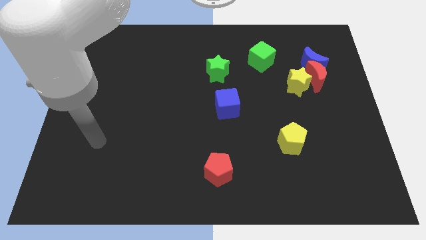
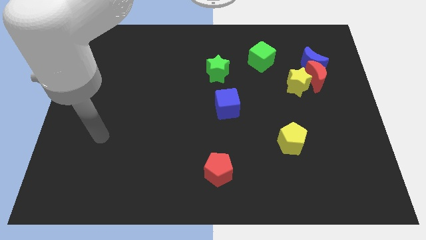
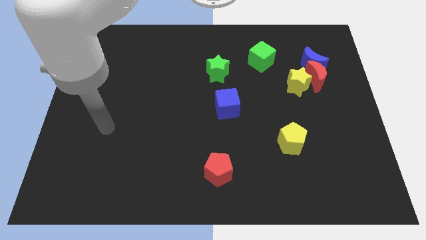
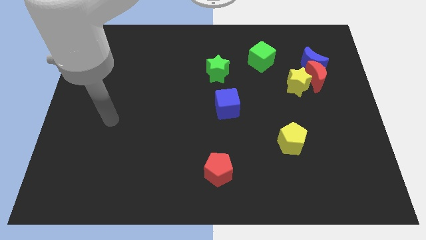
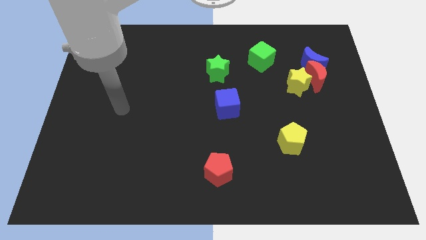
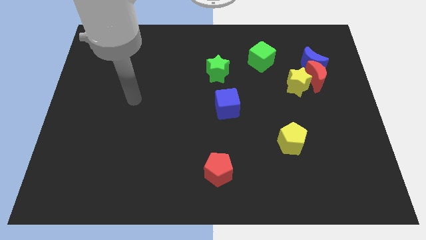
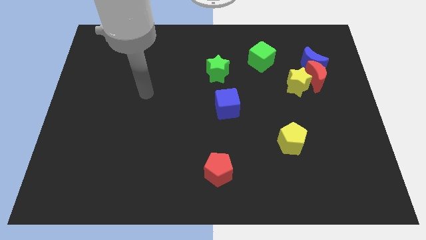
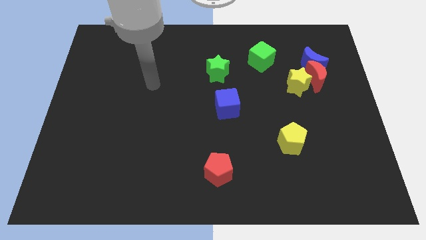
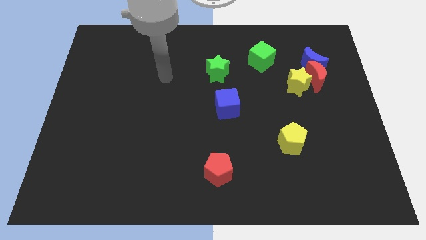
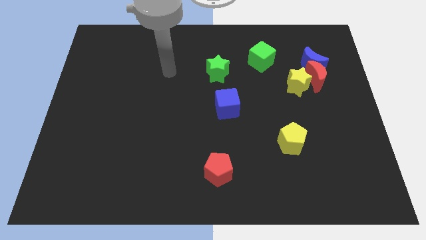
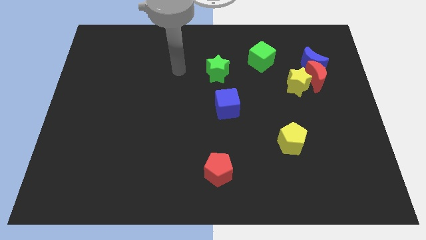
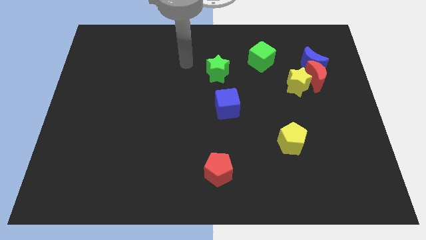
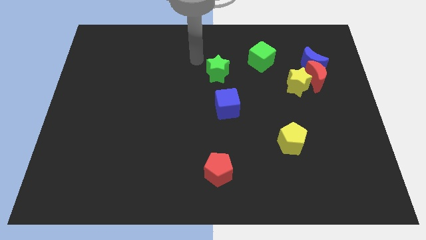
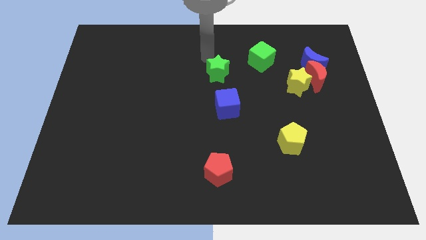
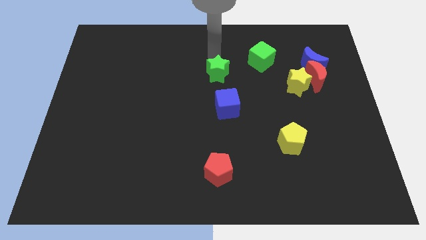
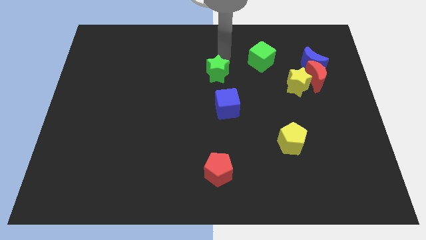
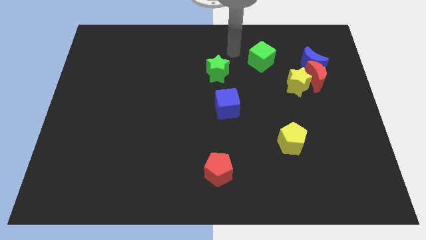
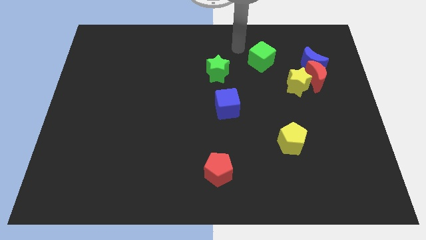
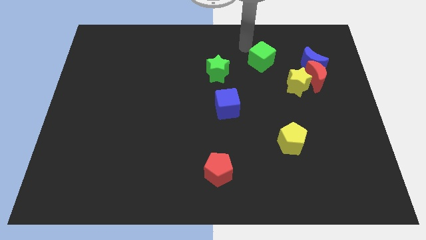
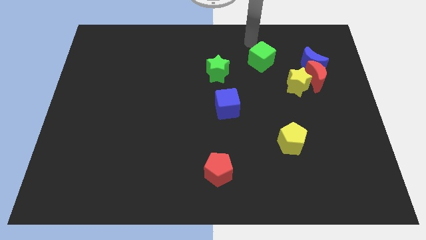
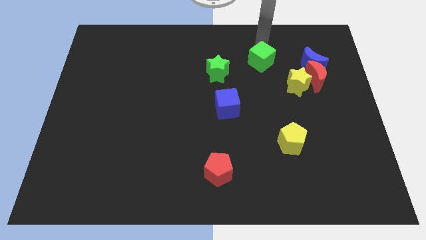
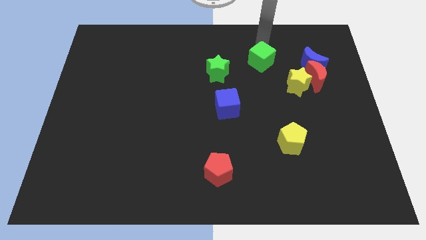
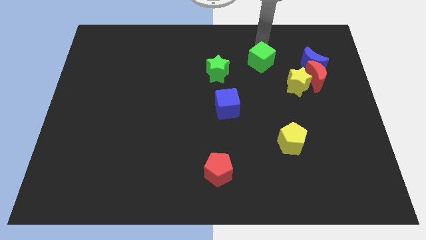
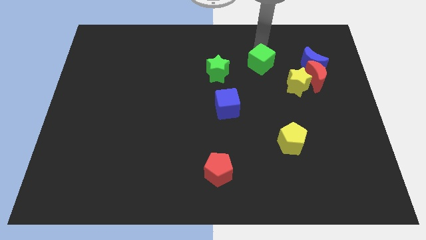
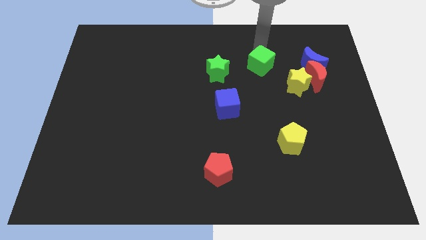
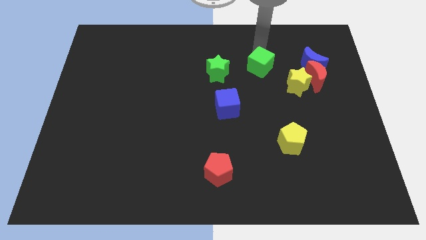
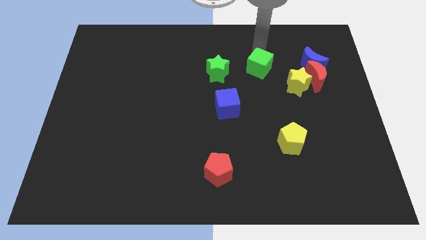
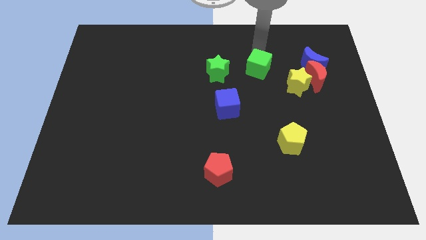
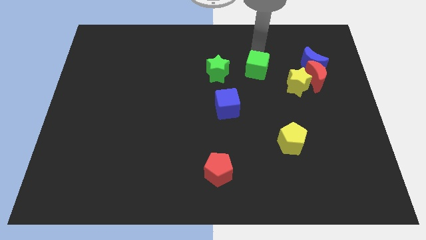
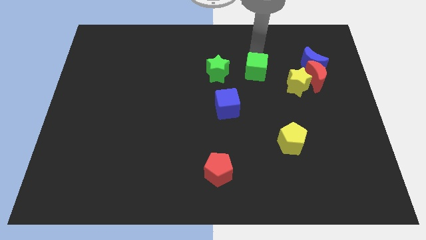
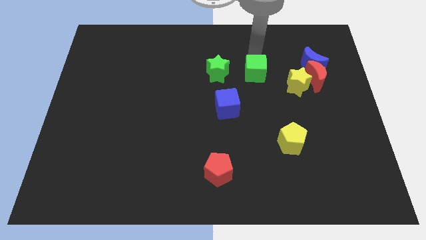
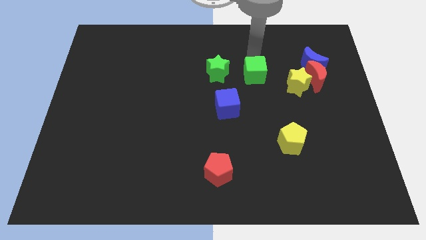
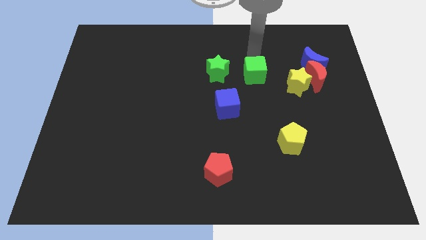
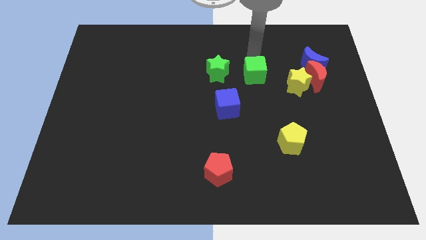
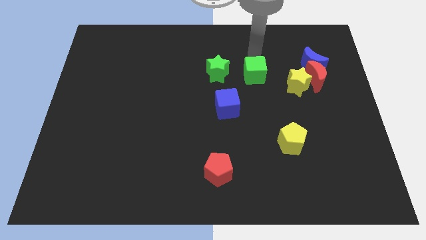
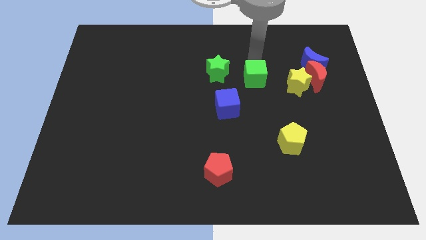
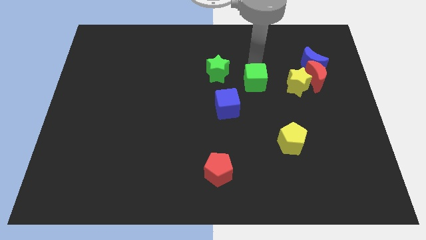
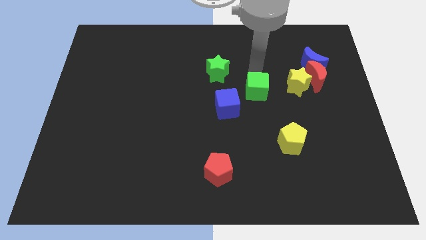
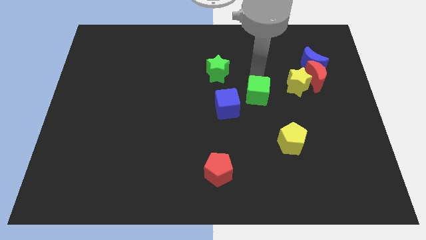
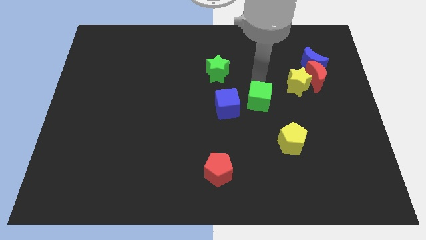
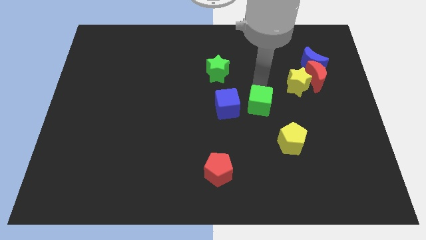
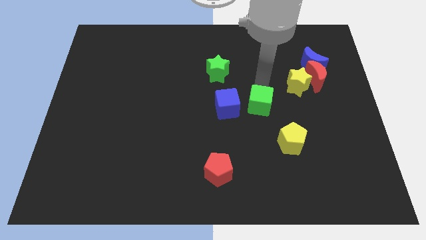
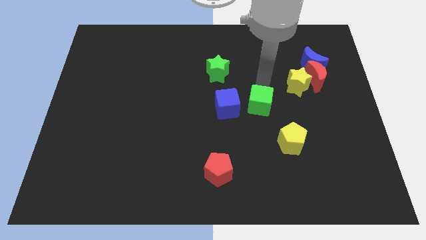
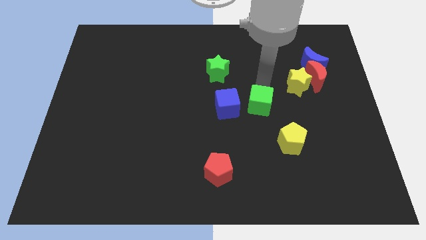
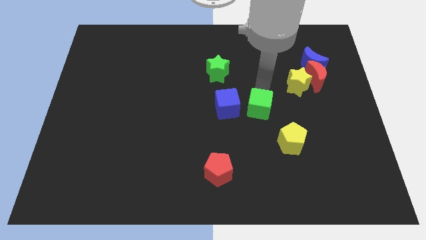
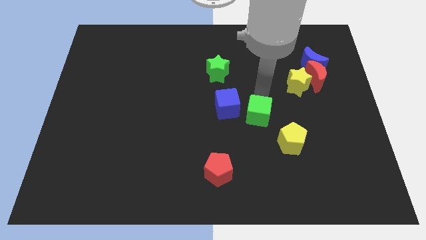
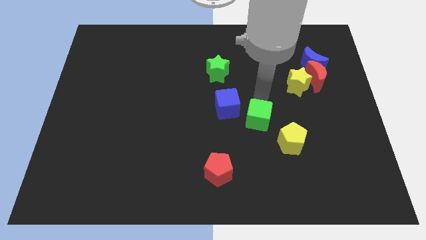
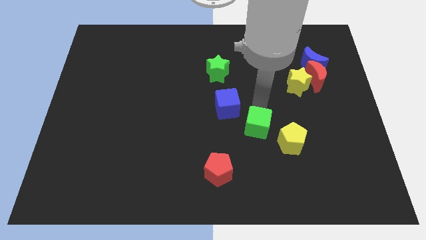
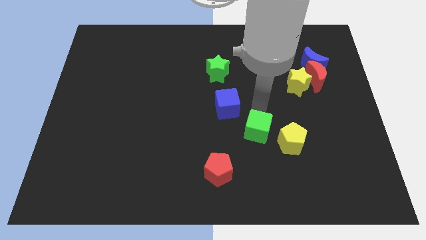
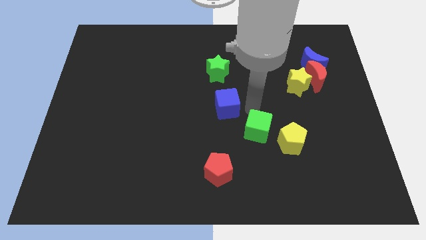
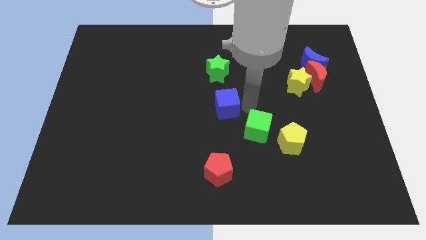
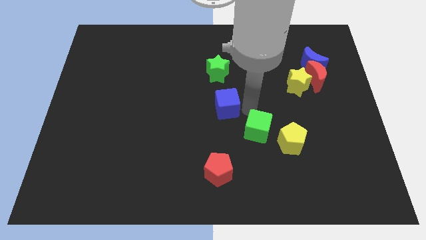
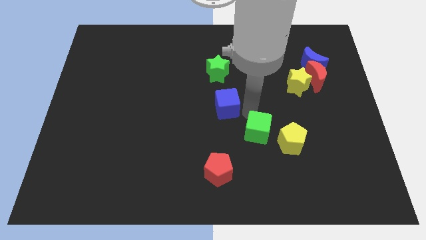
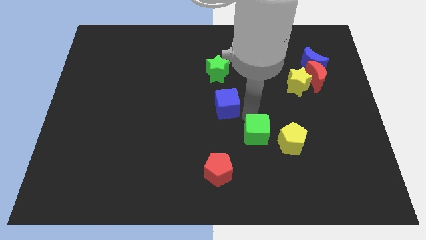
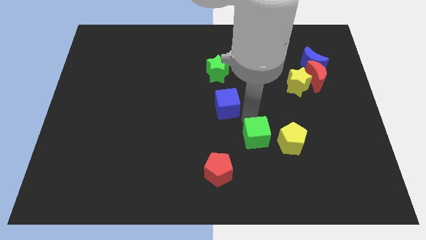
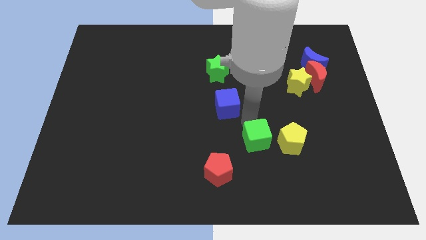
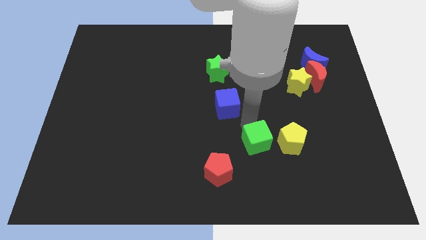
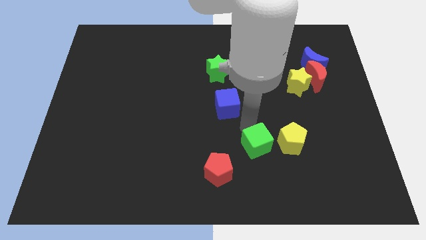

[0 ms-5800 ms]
push the green cube to the bottom left side of the yellow pentagon
